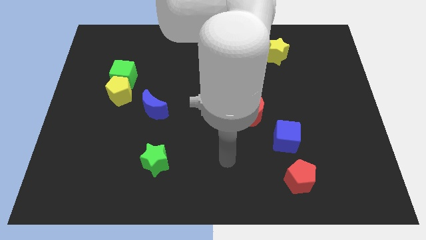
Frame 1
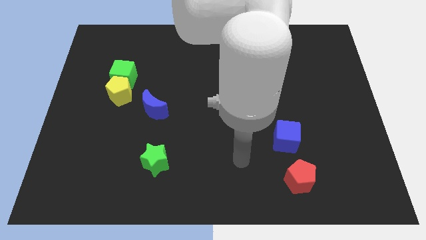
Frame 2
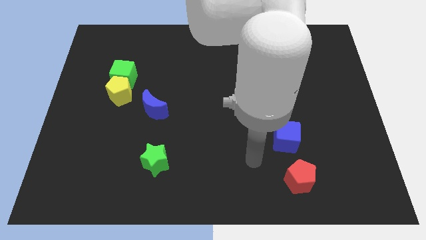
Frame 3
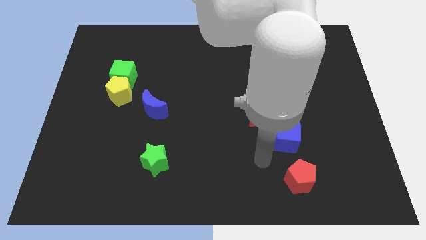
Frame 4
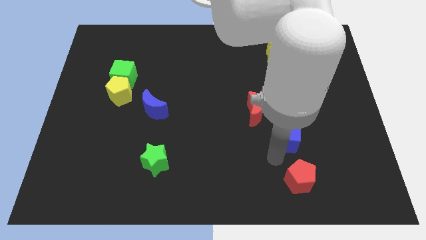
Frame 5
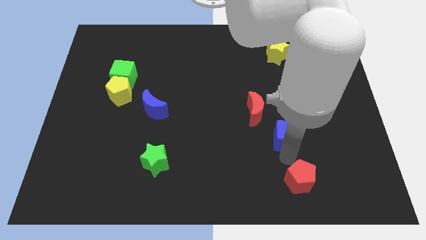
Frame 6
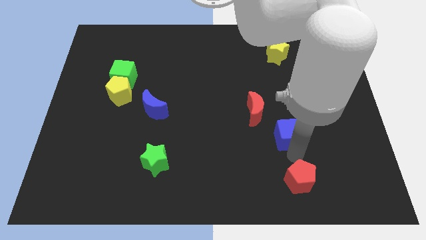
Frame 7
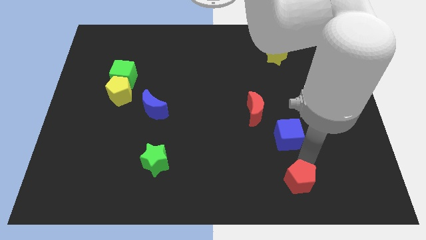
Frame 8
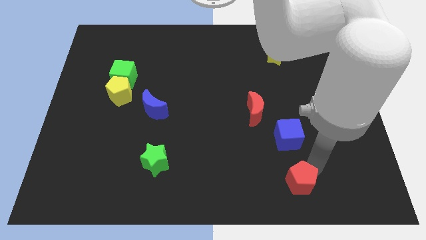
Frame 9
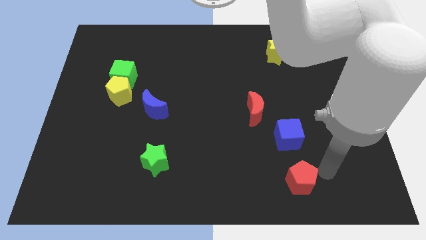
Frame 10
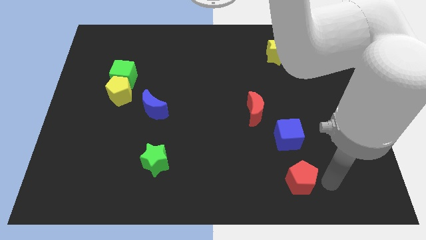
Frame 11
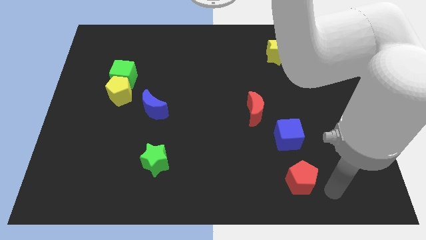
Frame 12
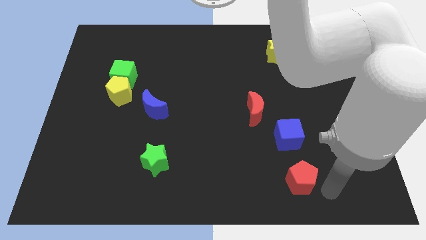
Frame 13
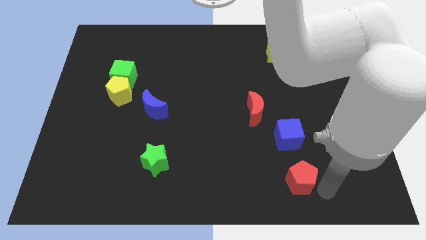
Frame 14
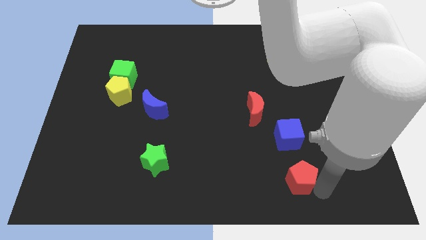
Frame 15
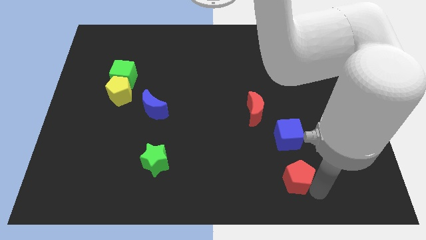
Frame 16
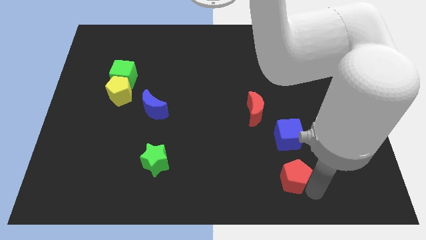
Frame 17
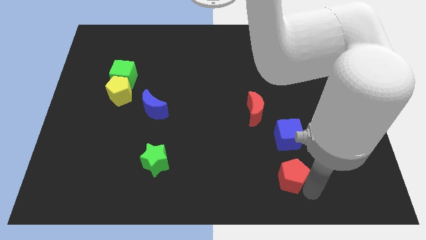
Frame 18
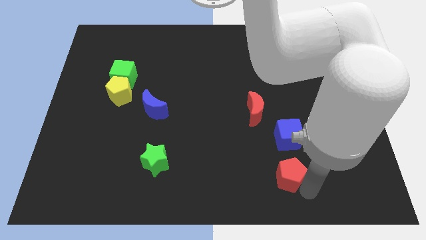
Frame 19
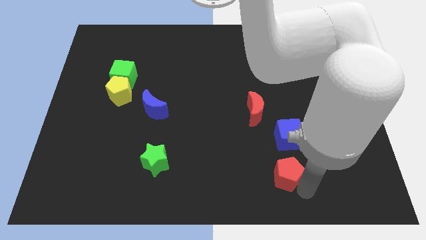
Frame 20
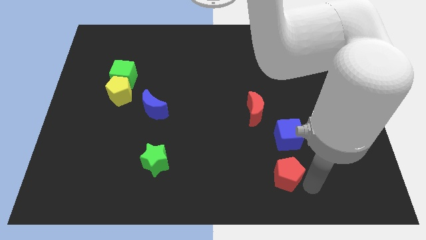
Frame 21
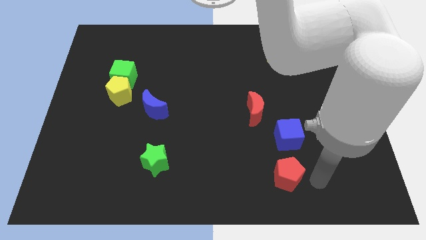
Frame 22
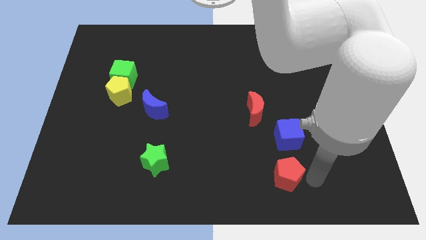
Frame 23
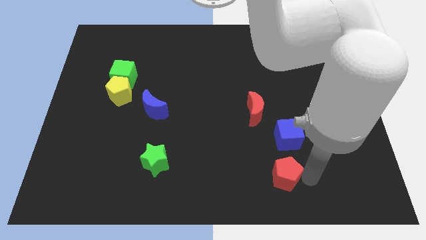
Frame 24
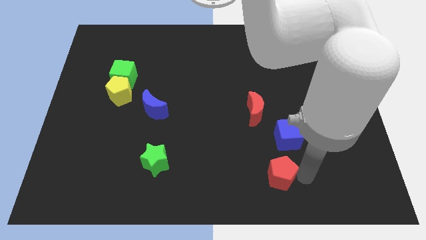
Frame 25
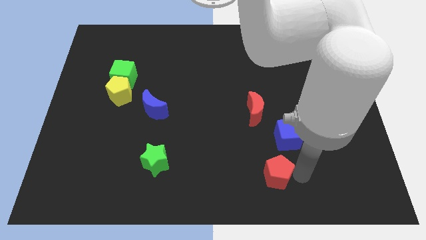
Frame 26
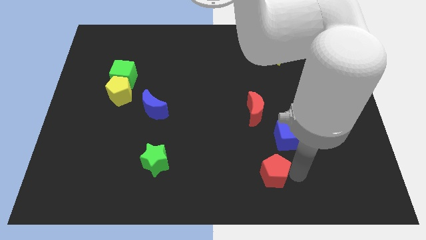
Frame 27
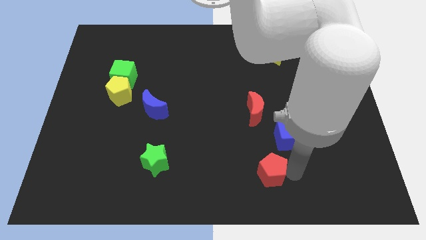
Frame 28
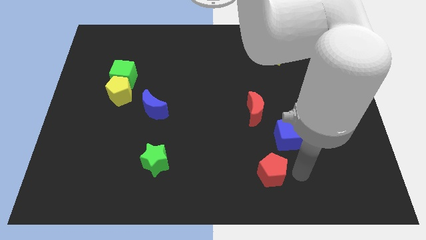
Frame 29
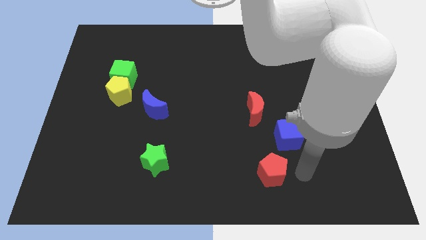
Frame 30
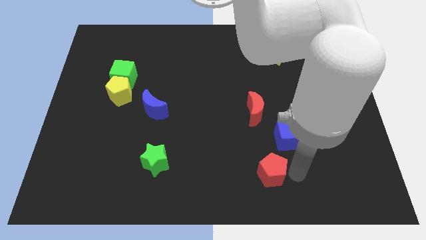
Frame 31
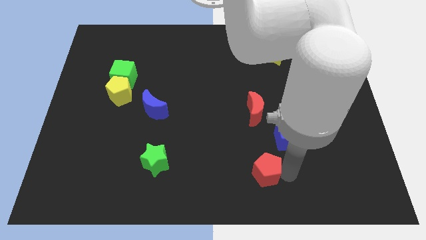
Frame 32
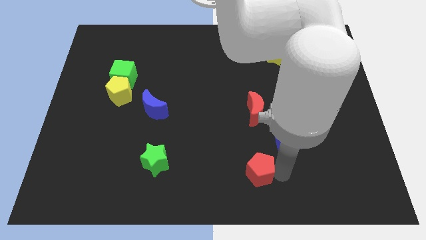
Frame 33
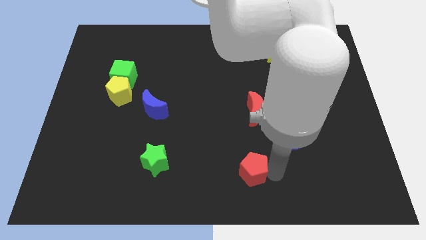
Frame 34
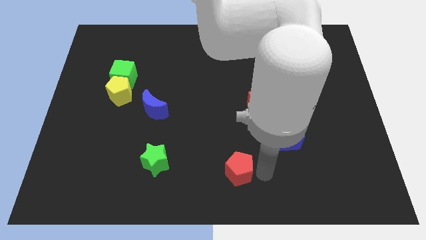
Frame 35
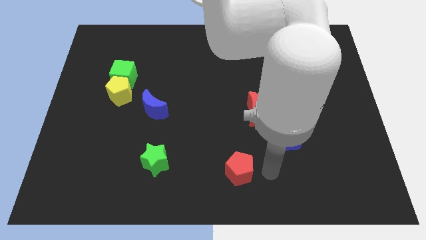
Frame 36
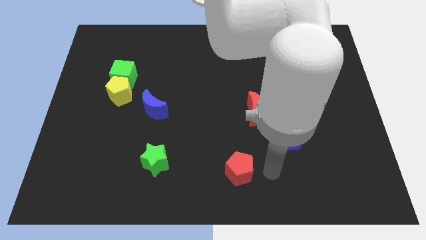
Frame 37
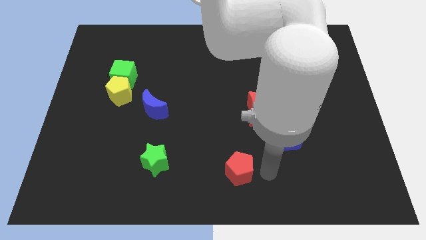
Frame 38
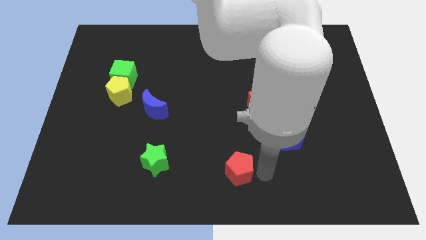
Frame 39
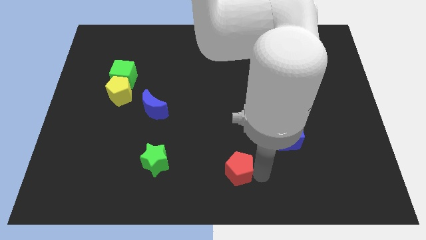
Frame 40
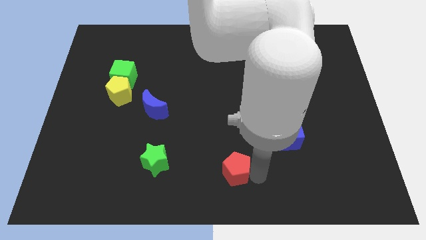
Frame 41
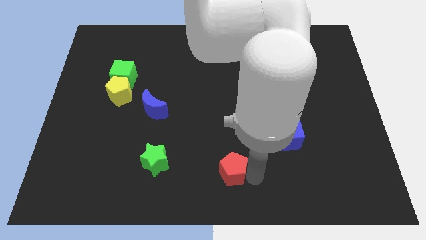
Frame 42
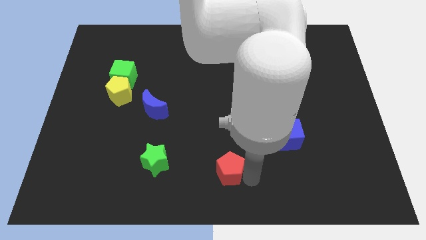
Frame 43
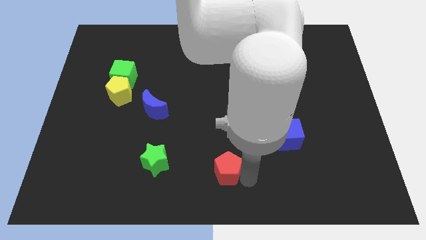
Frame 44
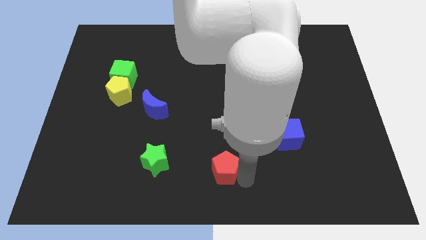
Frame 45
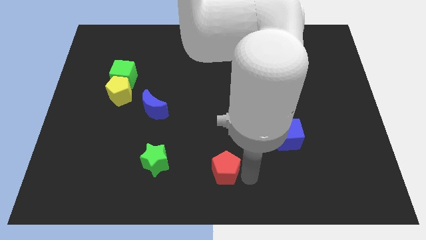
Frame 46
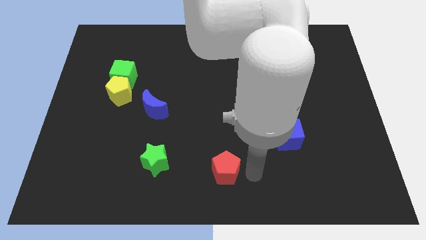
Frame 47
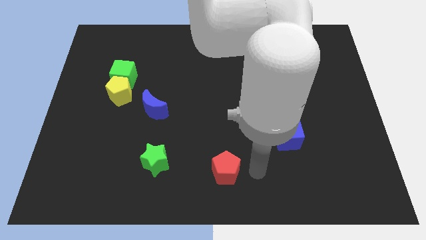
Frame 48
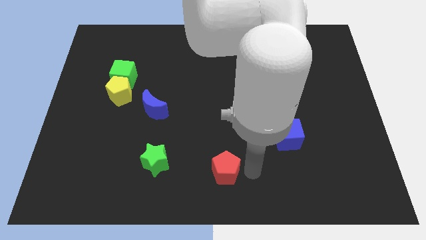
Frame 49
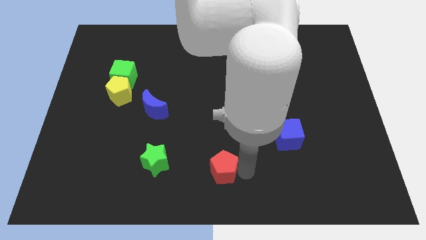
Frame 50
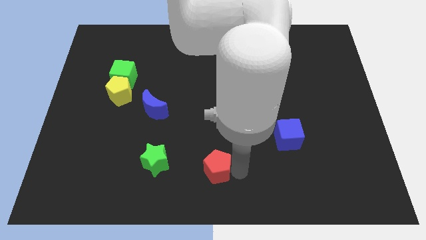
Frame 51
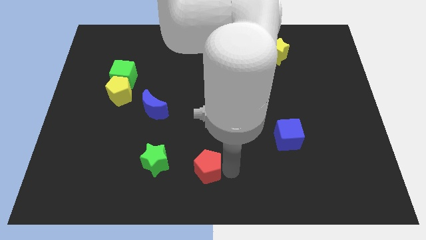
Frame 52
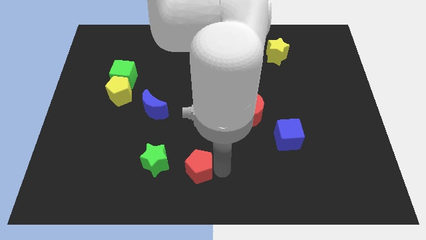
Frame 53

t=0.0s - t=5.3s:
push the red pentagon to the left

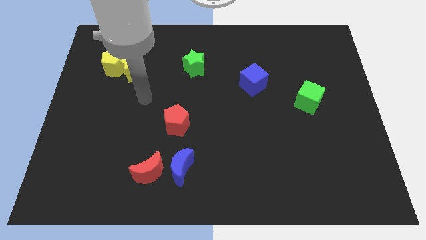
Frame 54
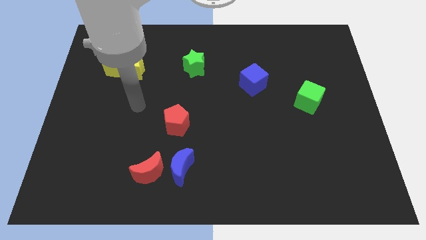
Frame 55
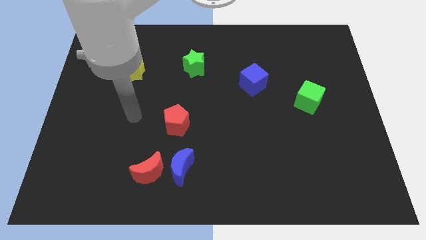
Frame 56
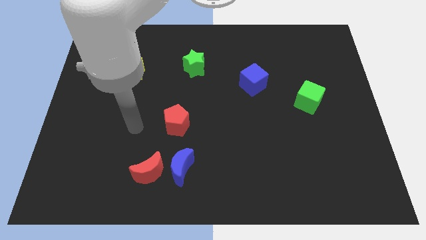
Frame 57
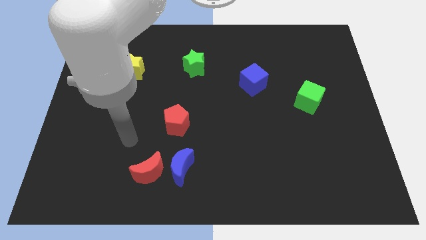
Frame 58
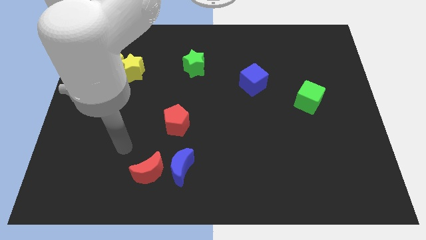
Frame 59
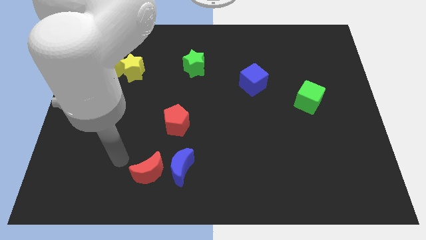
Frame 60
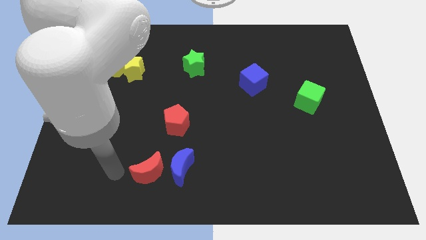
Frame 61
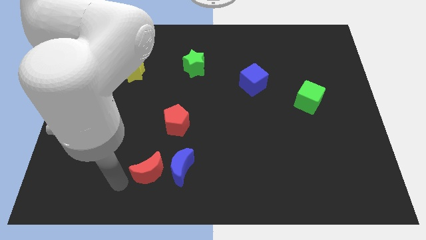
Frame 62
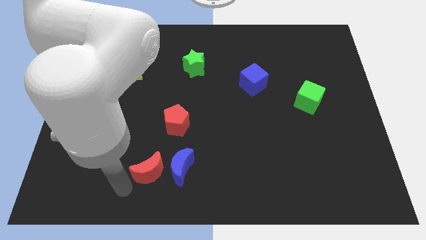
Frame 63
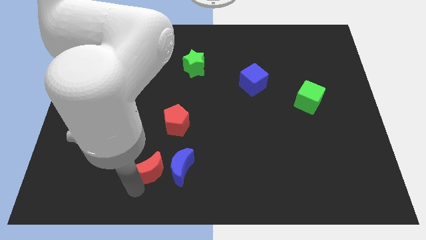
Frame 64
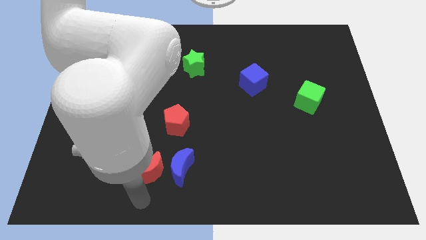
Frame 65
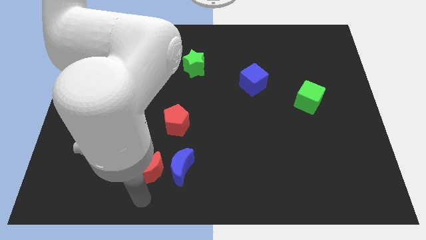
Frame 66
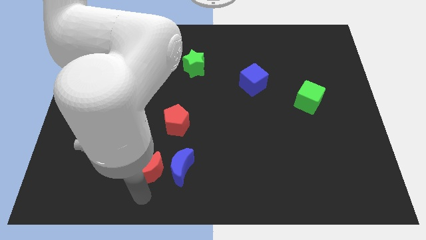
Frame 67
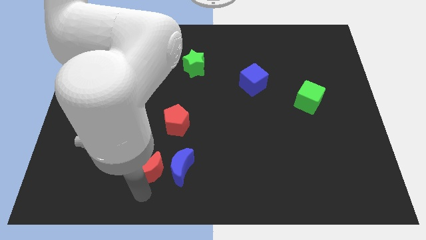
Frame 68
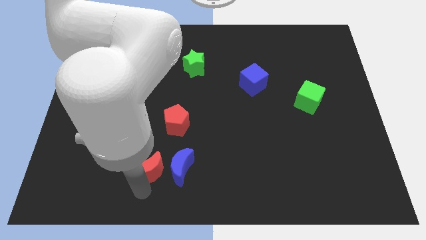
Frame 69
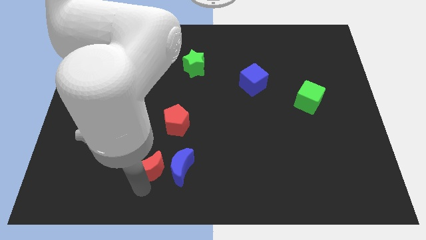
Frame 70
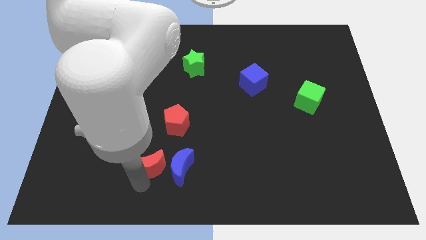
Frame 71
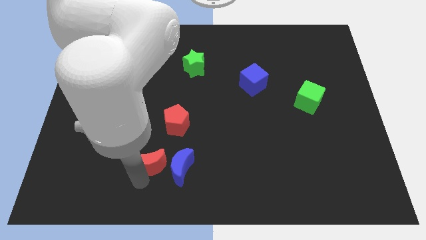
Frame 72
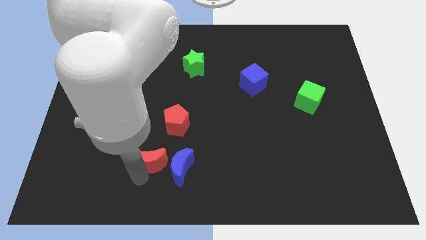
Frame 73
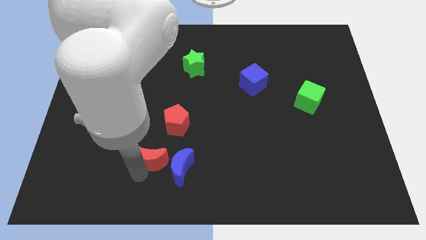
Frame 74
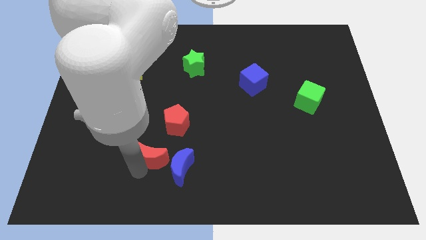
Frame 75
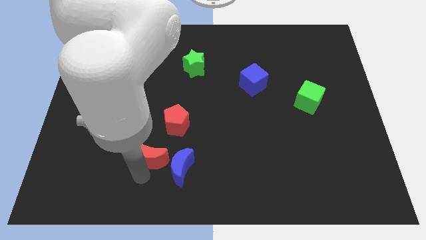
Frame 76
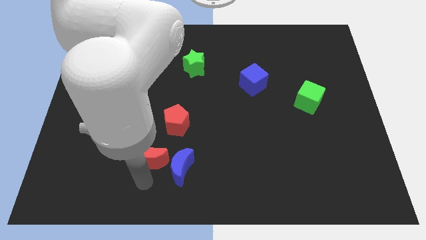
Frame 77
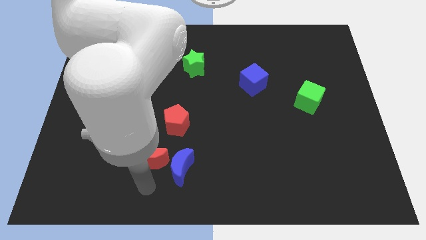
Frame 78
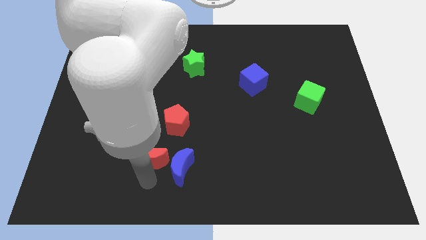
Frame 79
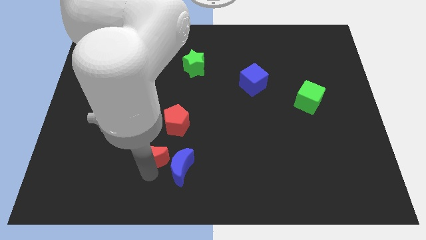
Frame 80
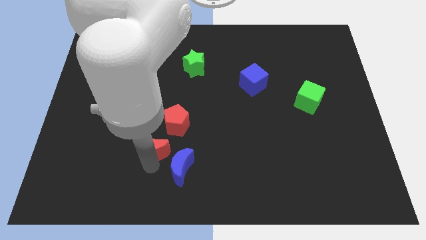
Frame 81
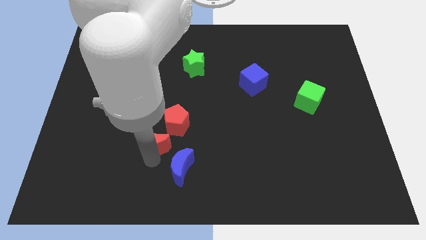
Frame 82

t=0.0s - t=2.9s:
slightly push the red moon upwards
